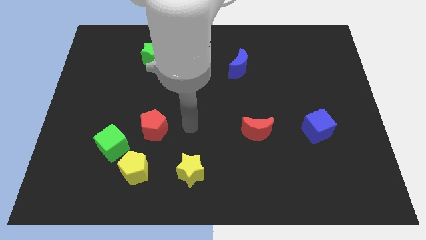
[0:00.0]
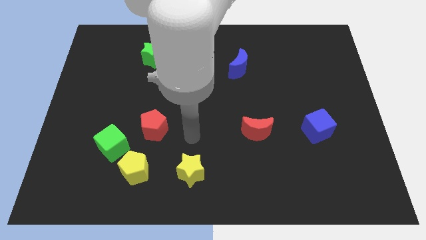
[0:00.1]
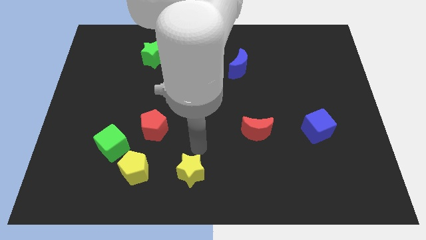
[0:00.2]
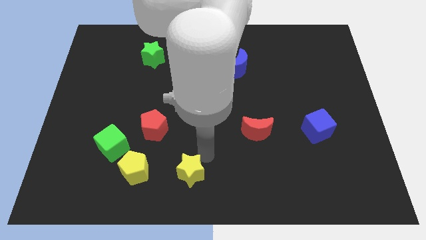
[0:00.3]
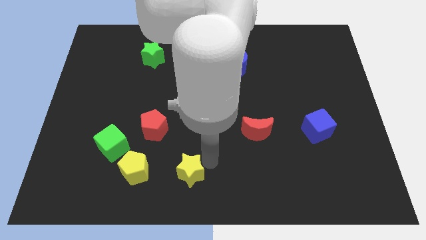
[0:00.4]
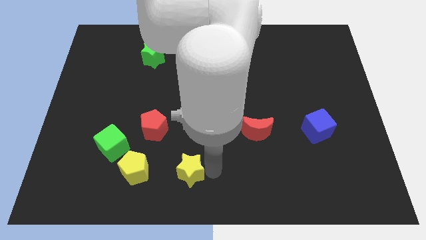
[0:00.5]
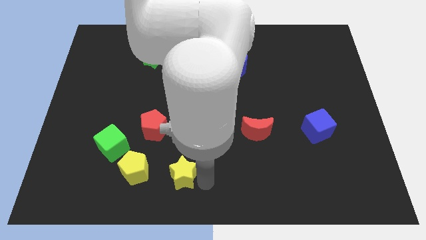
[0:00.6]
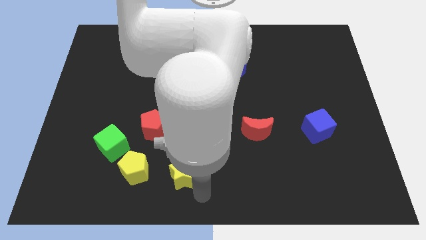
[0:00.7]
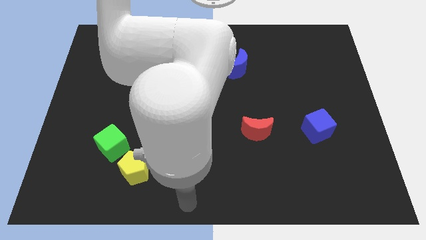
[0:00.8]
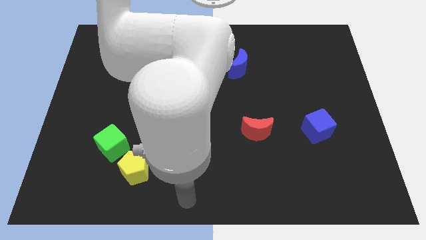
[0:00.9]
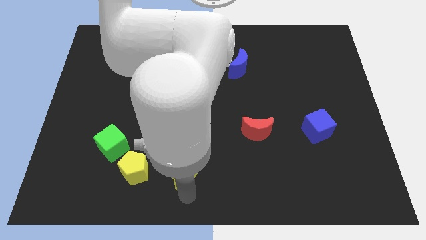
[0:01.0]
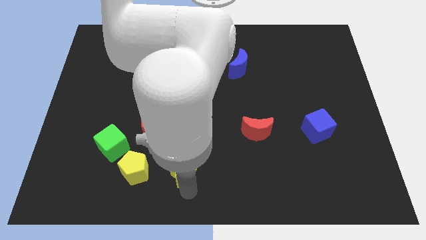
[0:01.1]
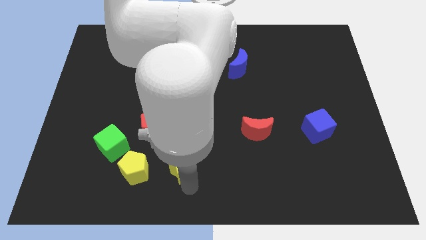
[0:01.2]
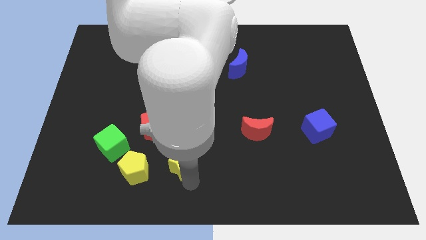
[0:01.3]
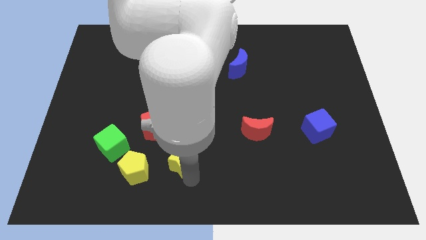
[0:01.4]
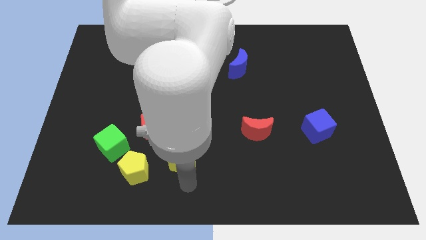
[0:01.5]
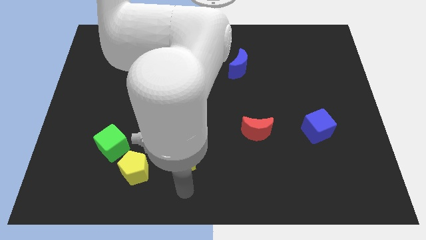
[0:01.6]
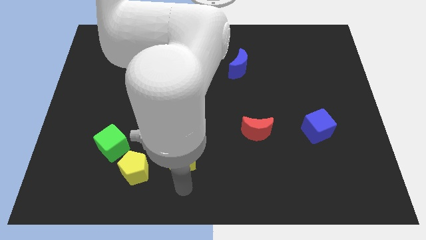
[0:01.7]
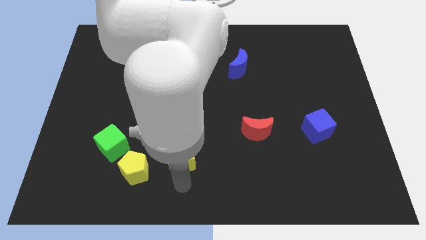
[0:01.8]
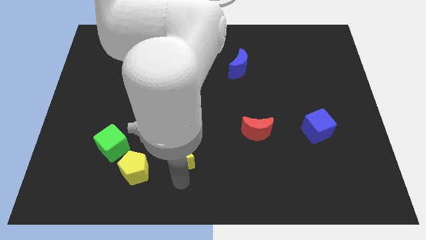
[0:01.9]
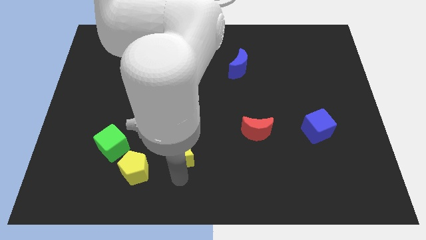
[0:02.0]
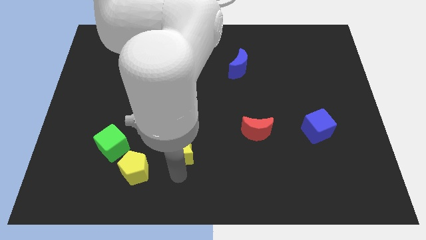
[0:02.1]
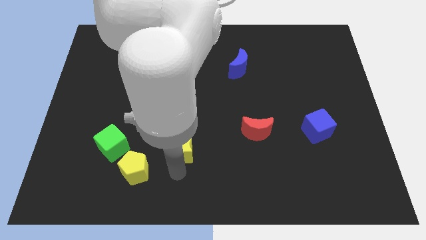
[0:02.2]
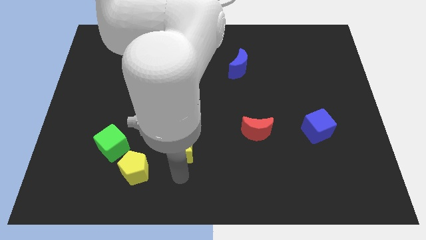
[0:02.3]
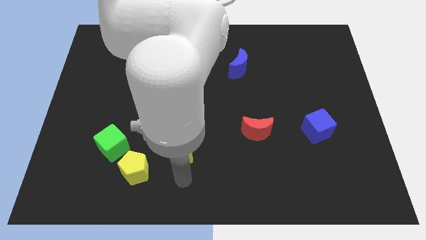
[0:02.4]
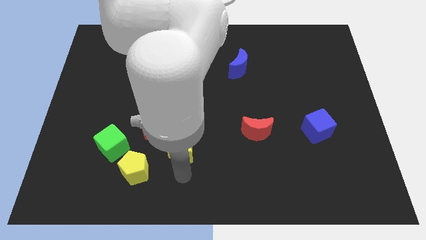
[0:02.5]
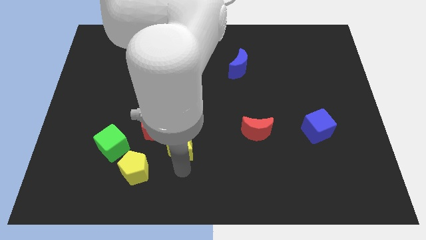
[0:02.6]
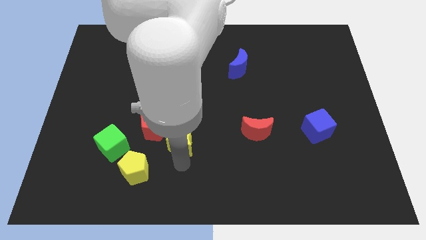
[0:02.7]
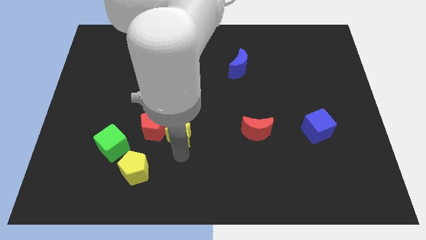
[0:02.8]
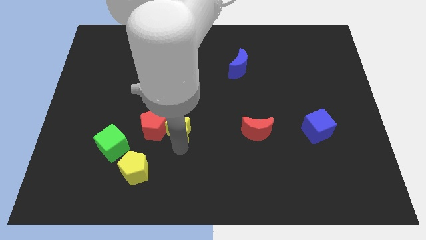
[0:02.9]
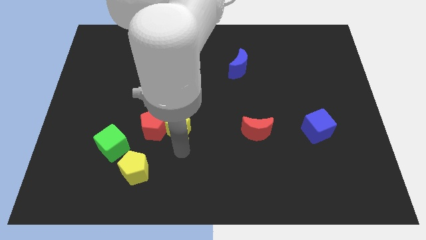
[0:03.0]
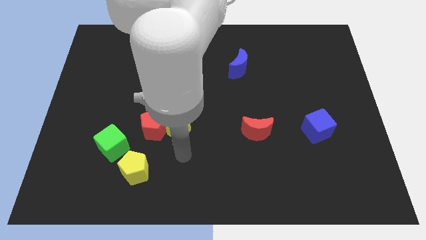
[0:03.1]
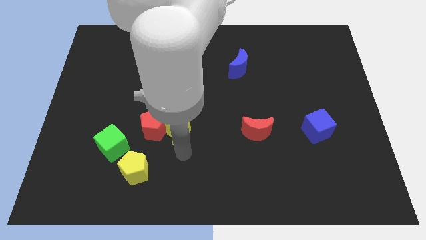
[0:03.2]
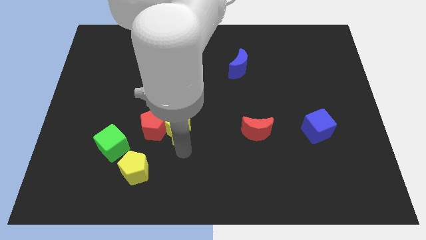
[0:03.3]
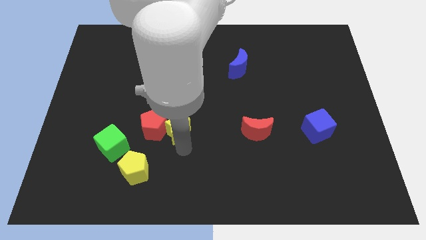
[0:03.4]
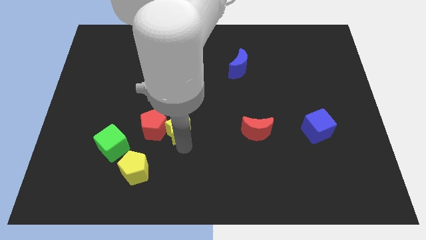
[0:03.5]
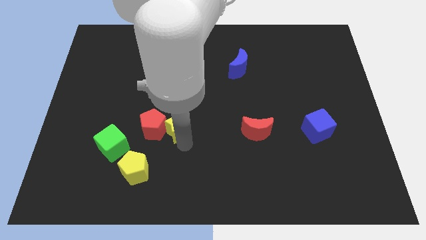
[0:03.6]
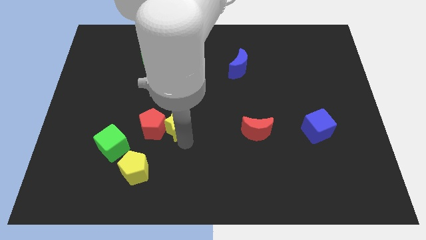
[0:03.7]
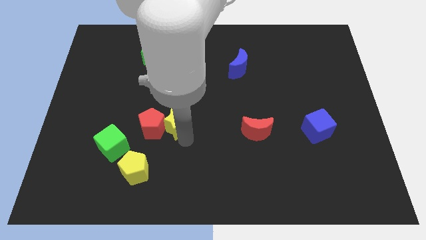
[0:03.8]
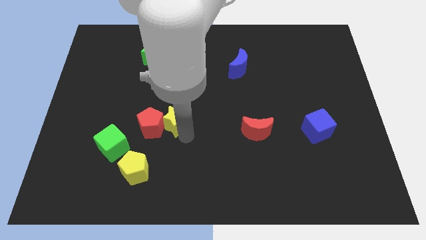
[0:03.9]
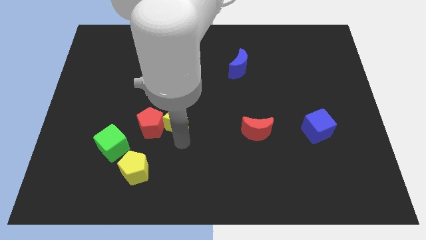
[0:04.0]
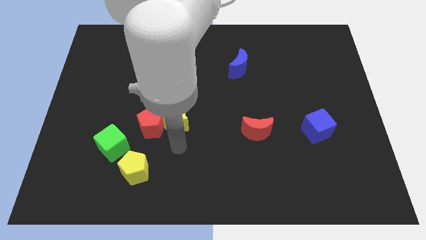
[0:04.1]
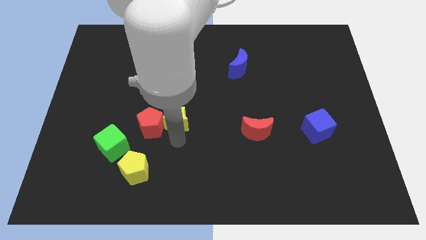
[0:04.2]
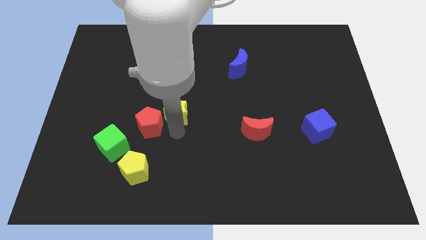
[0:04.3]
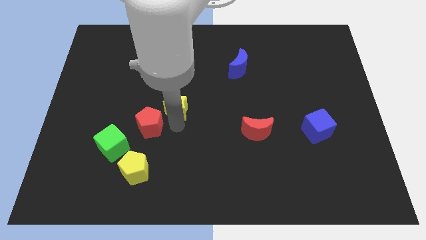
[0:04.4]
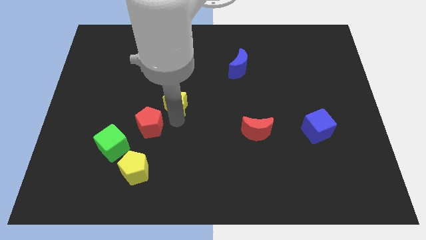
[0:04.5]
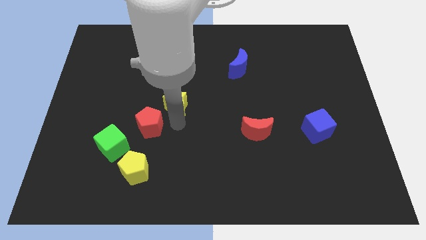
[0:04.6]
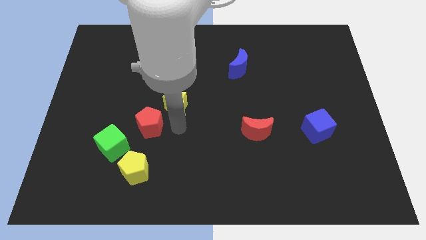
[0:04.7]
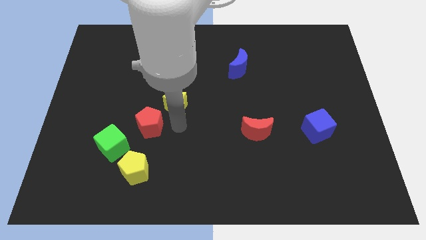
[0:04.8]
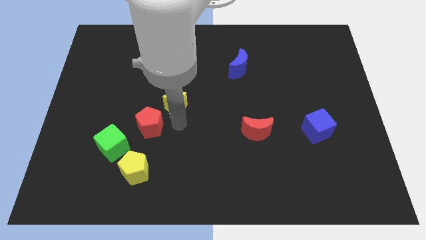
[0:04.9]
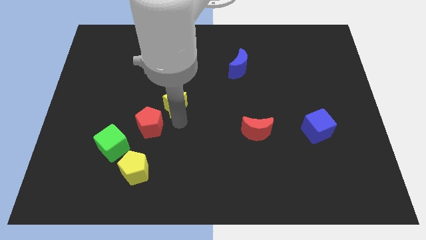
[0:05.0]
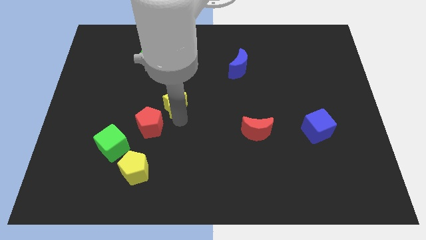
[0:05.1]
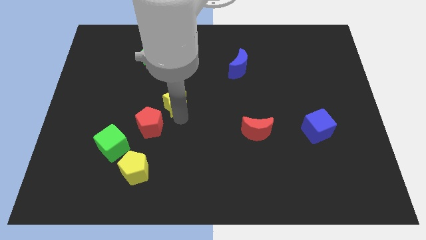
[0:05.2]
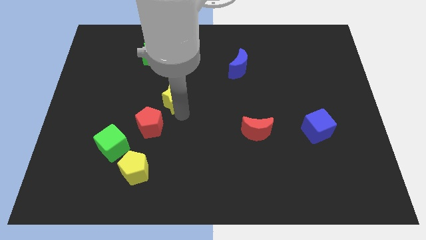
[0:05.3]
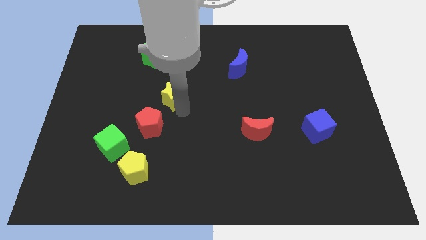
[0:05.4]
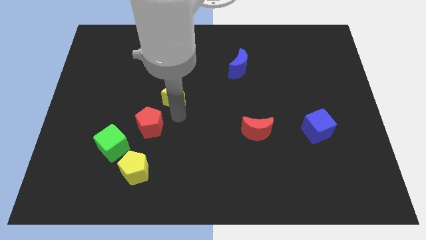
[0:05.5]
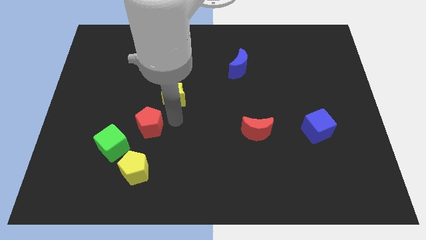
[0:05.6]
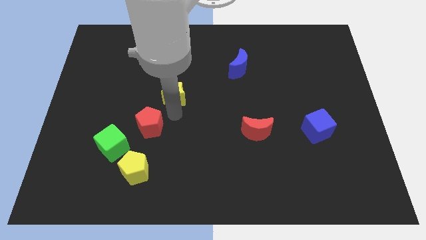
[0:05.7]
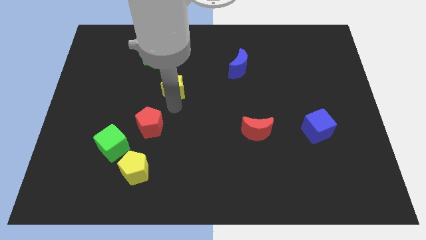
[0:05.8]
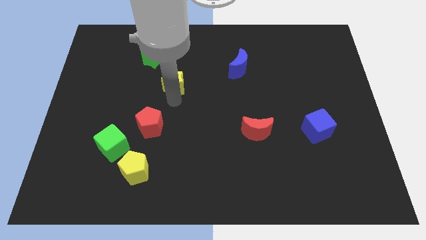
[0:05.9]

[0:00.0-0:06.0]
slide the yellow star to the bottom right of the green star

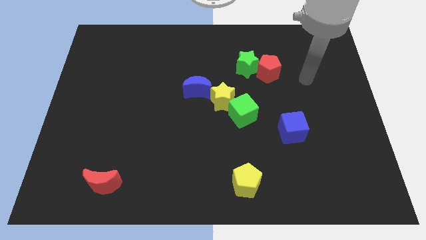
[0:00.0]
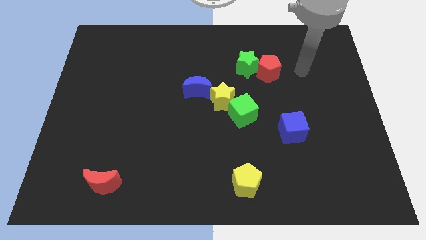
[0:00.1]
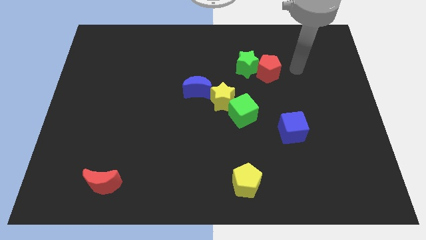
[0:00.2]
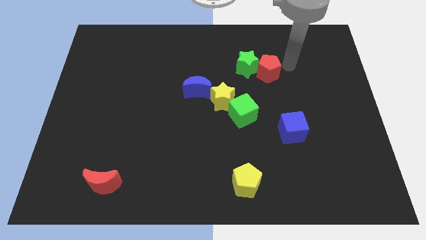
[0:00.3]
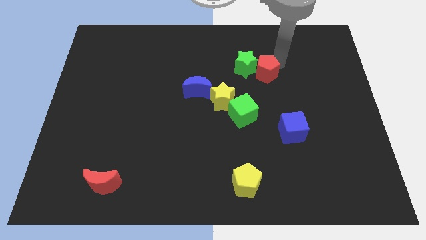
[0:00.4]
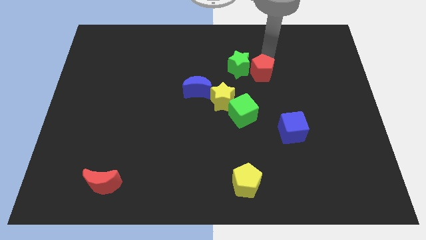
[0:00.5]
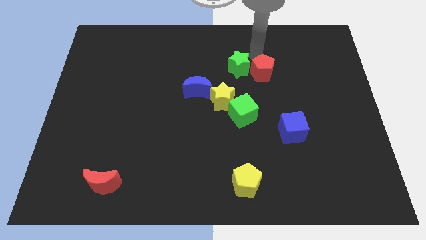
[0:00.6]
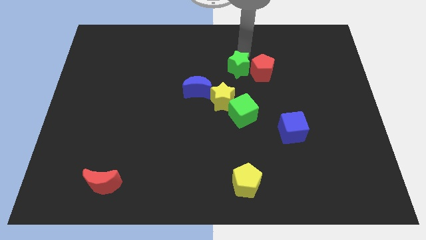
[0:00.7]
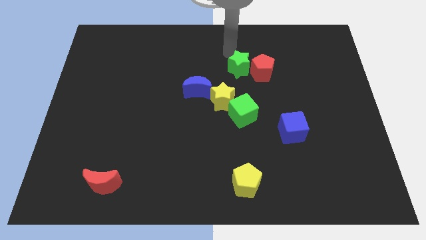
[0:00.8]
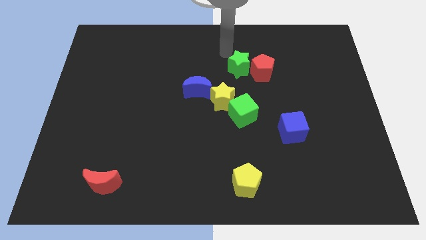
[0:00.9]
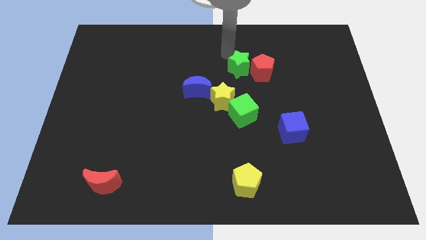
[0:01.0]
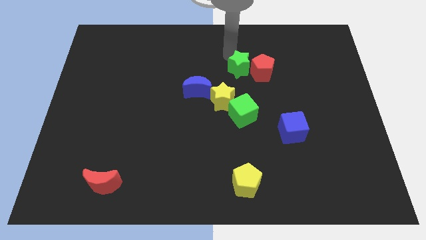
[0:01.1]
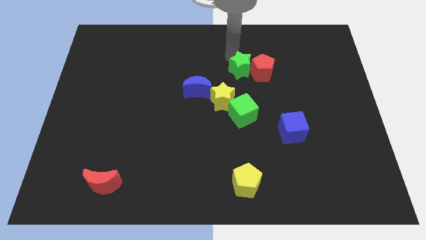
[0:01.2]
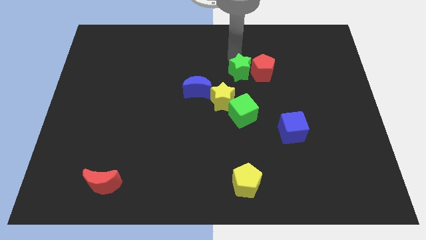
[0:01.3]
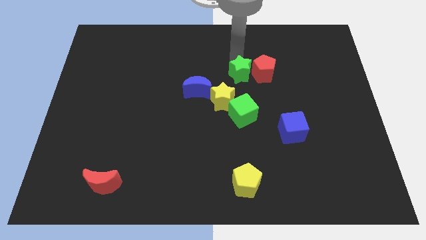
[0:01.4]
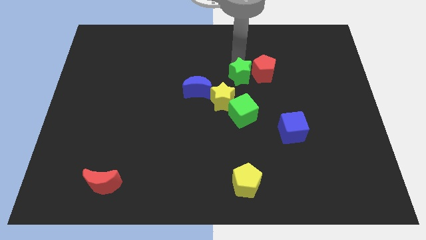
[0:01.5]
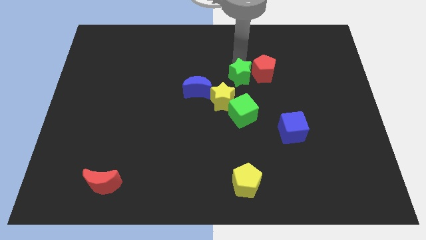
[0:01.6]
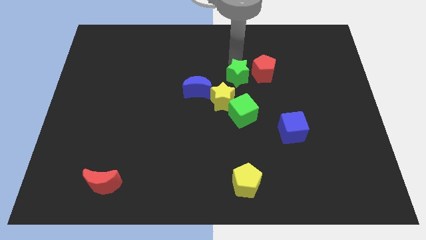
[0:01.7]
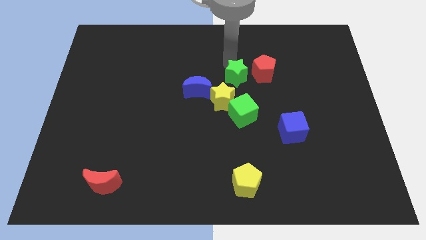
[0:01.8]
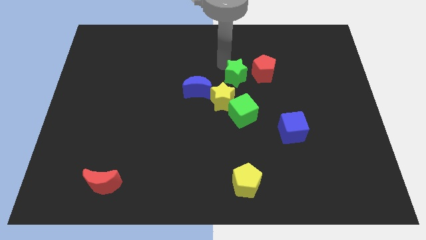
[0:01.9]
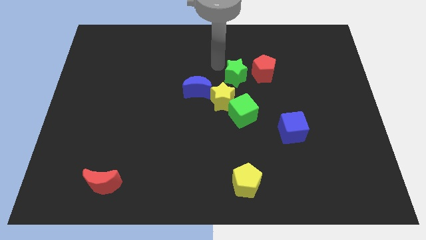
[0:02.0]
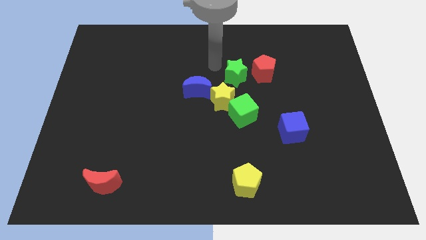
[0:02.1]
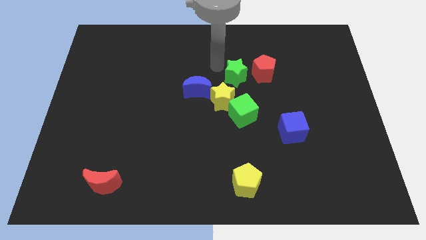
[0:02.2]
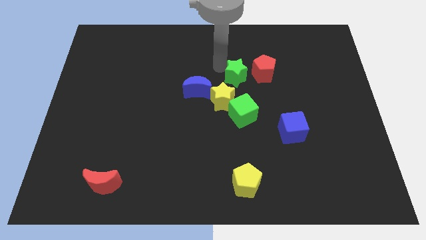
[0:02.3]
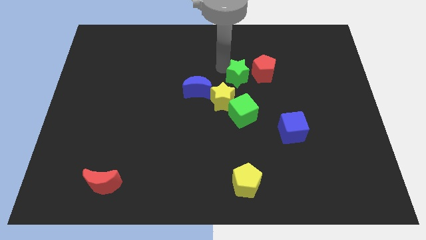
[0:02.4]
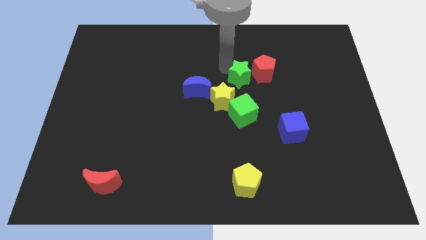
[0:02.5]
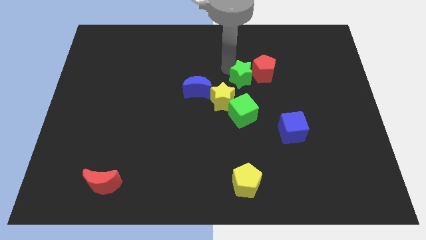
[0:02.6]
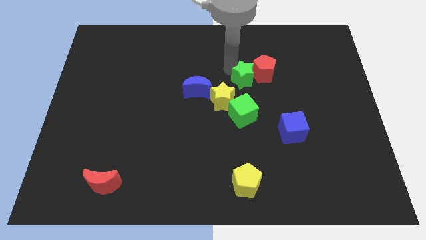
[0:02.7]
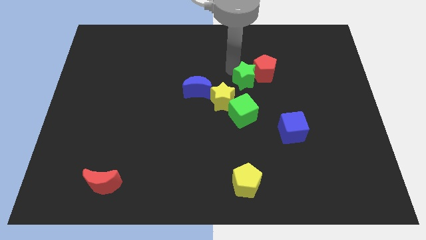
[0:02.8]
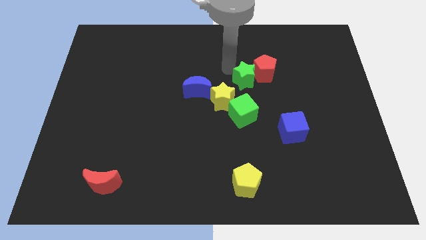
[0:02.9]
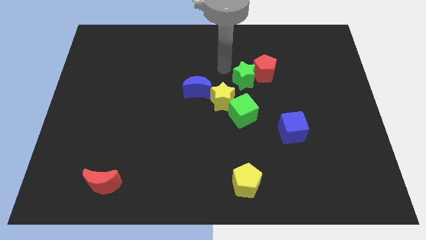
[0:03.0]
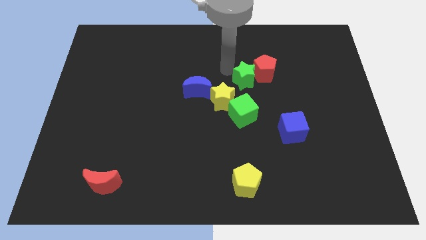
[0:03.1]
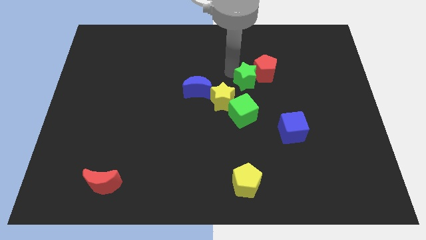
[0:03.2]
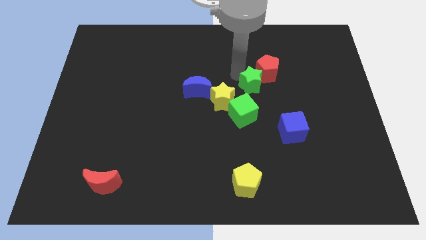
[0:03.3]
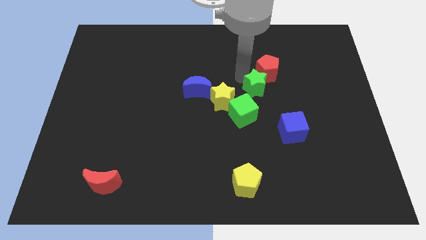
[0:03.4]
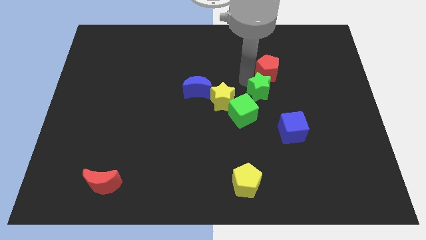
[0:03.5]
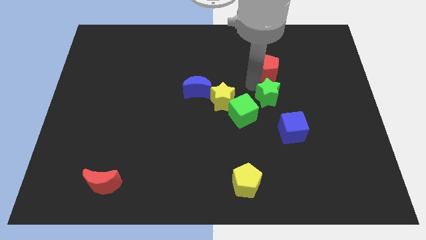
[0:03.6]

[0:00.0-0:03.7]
slide the green star to the right side of the green cube
